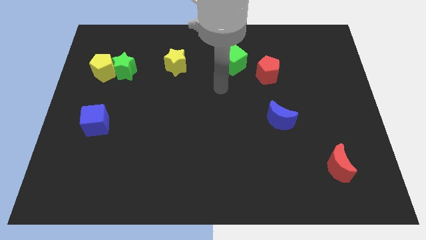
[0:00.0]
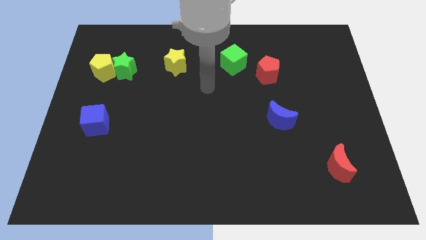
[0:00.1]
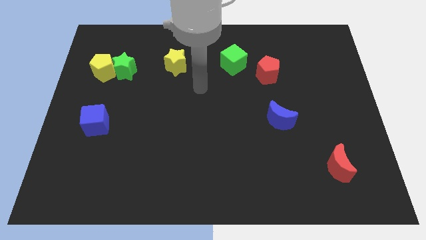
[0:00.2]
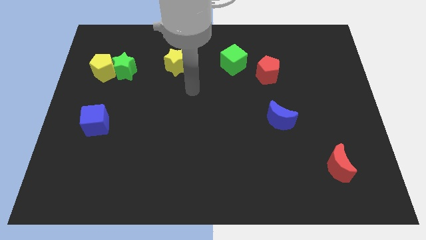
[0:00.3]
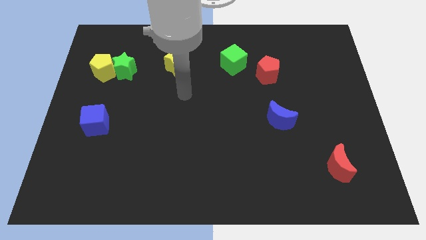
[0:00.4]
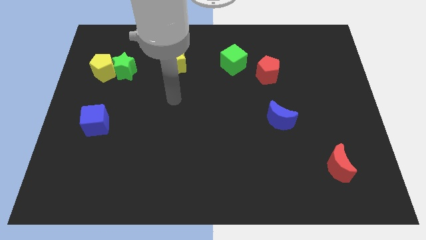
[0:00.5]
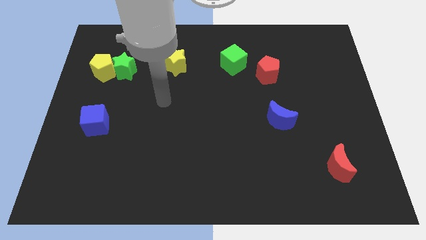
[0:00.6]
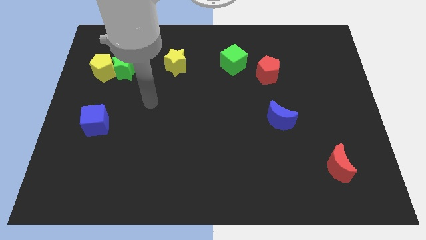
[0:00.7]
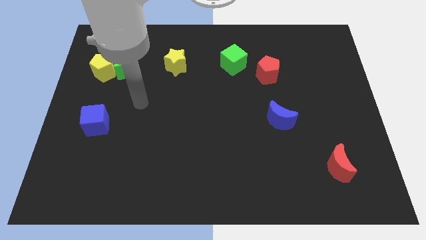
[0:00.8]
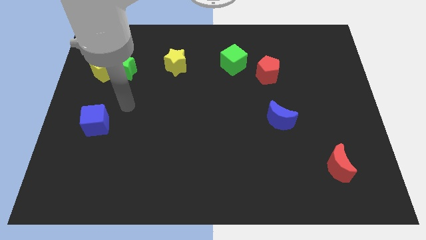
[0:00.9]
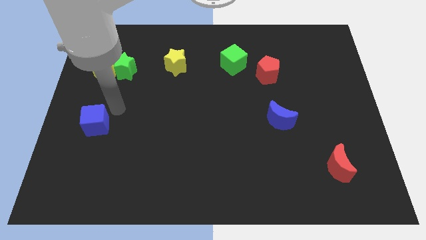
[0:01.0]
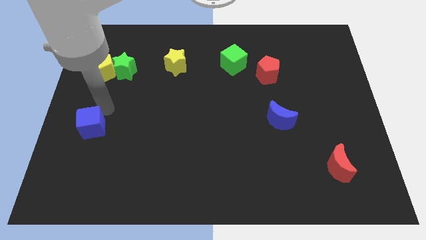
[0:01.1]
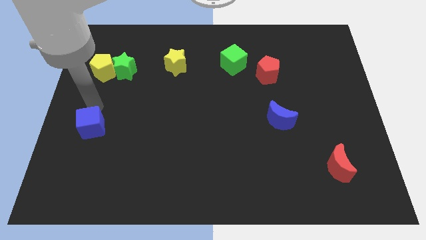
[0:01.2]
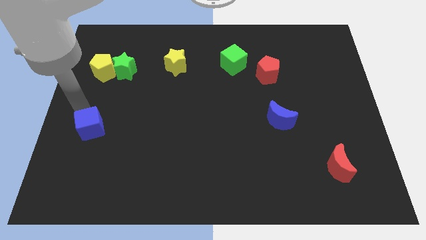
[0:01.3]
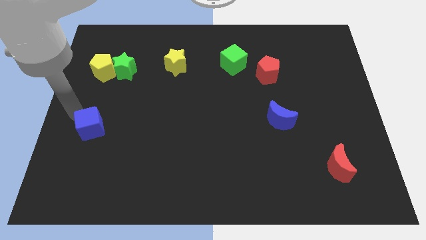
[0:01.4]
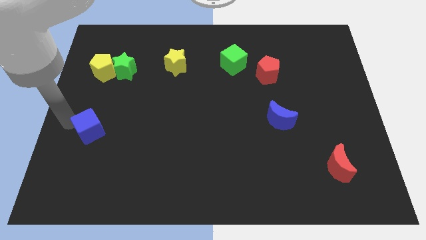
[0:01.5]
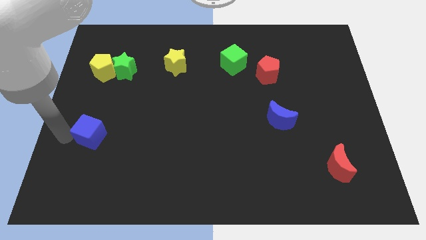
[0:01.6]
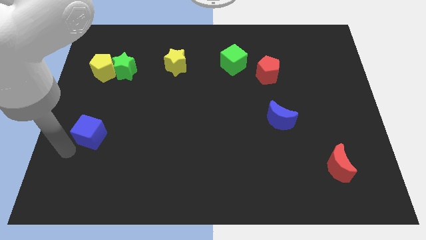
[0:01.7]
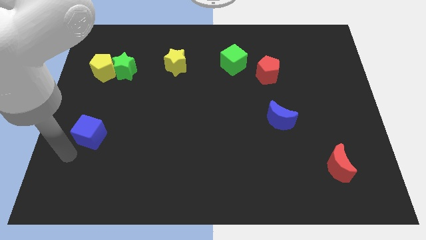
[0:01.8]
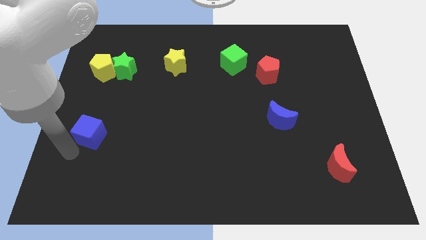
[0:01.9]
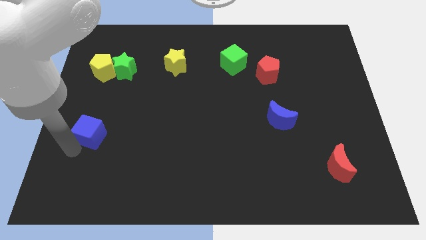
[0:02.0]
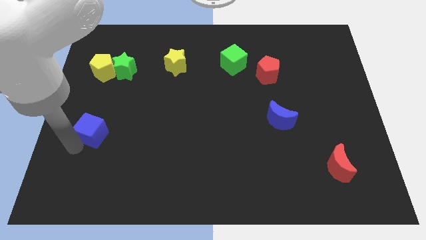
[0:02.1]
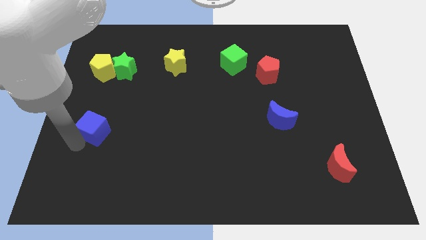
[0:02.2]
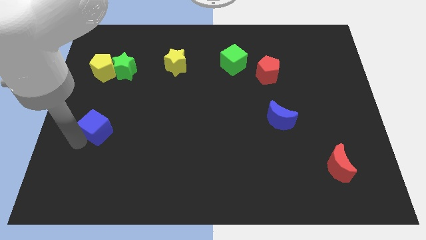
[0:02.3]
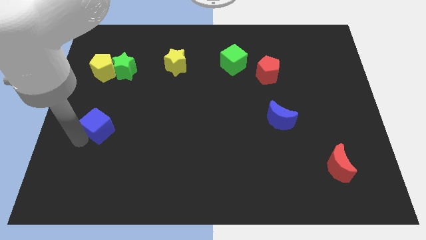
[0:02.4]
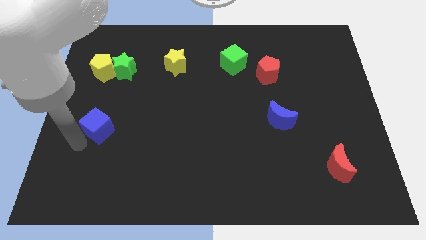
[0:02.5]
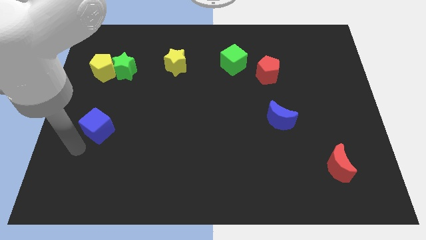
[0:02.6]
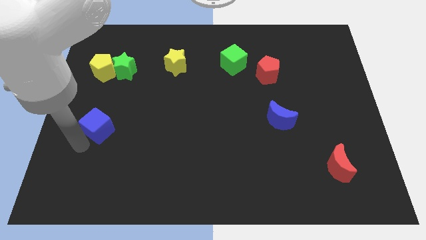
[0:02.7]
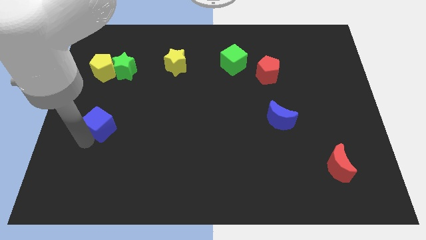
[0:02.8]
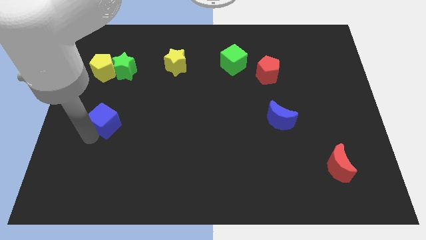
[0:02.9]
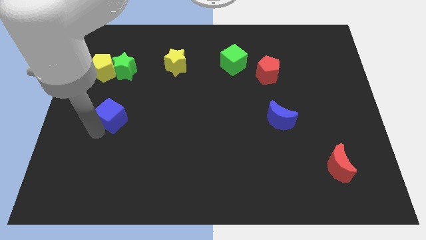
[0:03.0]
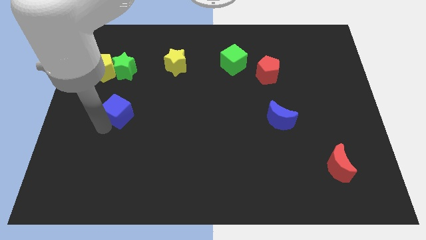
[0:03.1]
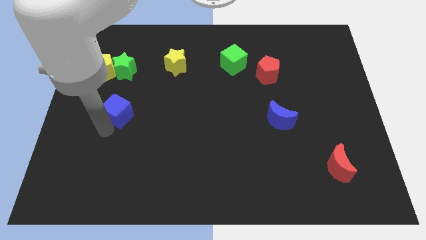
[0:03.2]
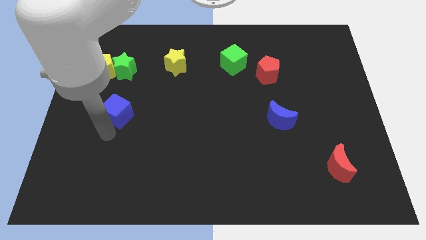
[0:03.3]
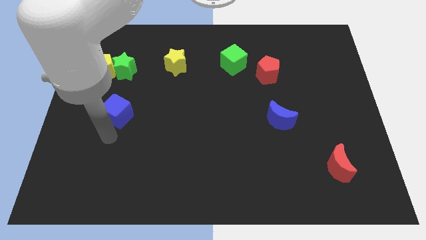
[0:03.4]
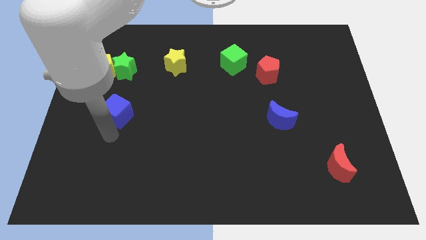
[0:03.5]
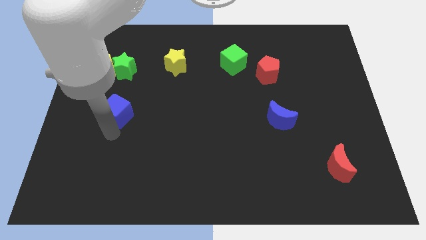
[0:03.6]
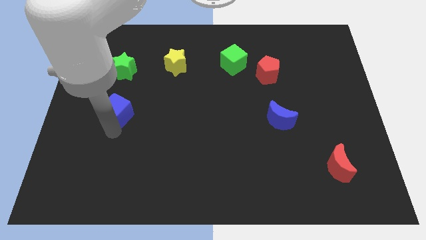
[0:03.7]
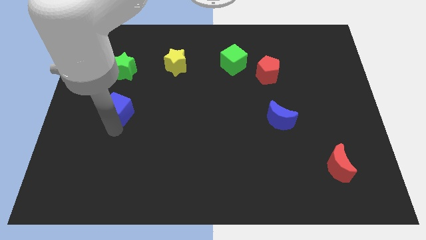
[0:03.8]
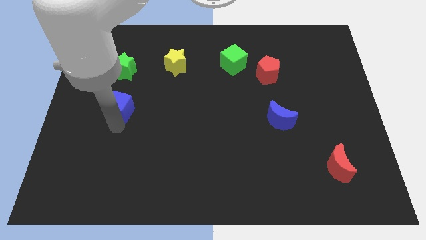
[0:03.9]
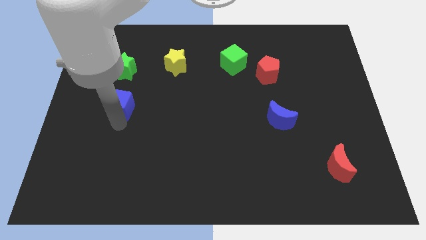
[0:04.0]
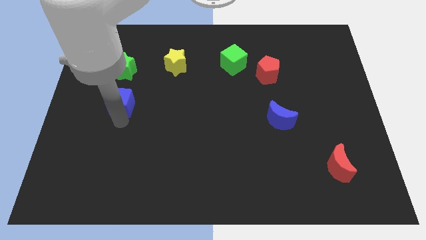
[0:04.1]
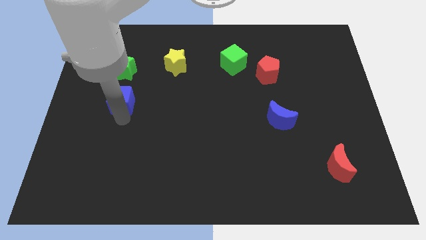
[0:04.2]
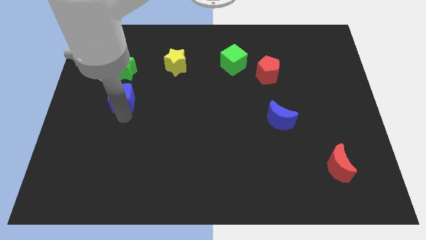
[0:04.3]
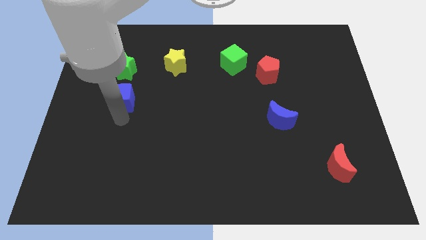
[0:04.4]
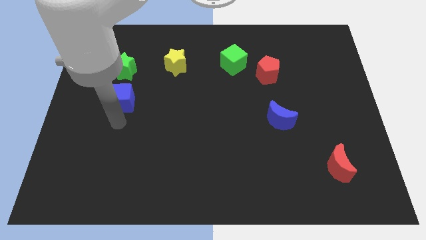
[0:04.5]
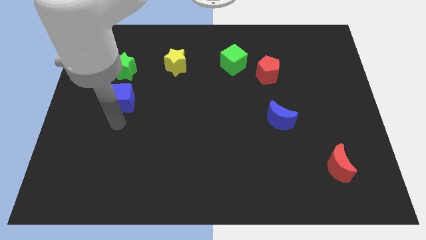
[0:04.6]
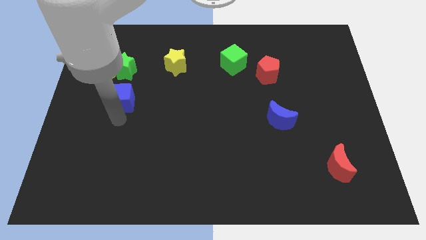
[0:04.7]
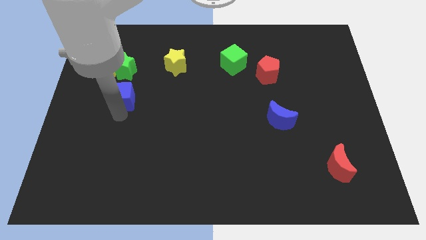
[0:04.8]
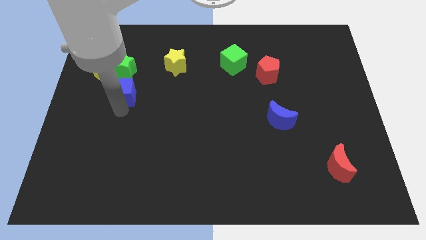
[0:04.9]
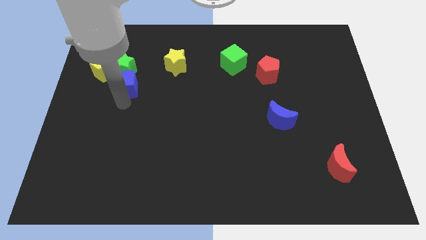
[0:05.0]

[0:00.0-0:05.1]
push the blue cube to the green star
